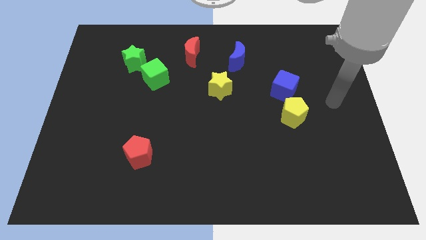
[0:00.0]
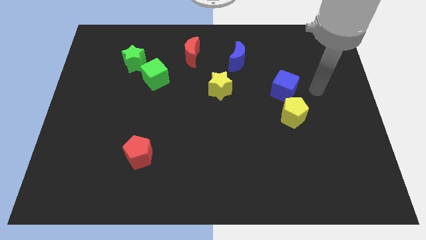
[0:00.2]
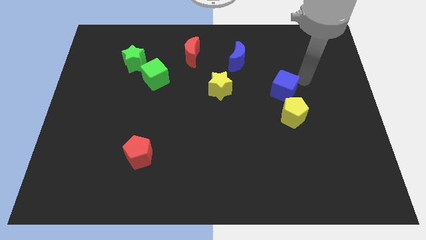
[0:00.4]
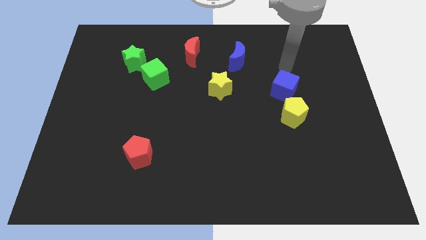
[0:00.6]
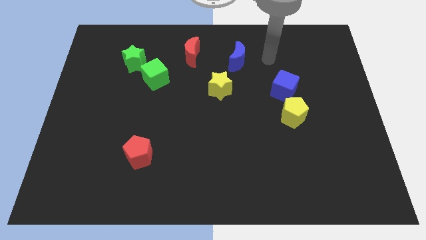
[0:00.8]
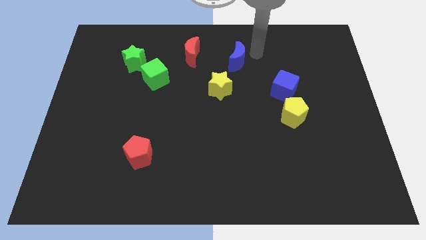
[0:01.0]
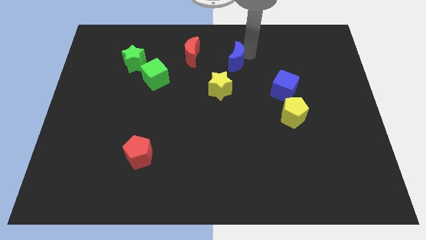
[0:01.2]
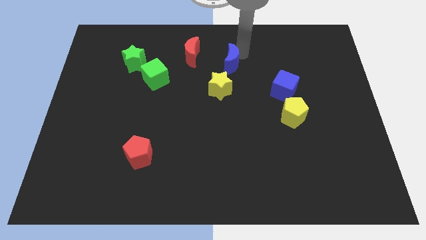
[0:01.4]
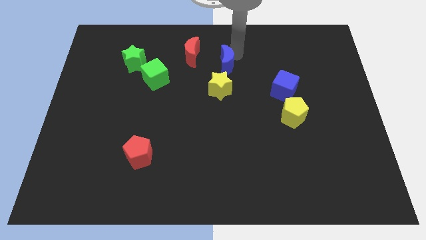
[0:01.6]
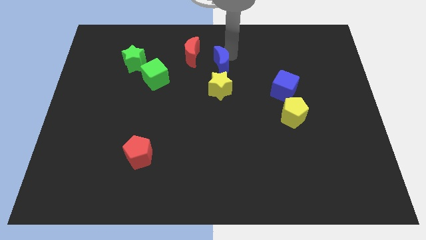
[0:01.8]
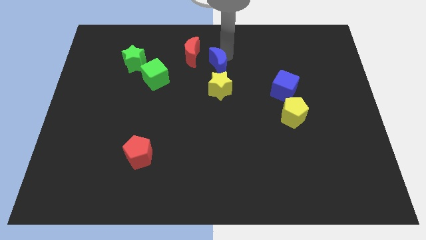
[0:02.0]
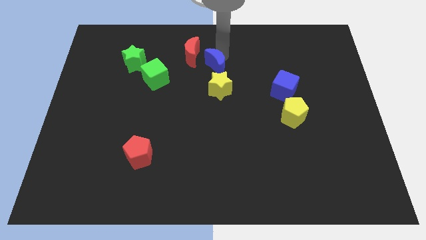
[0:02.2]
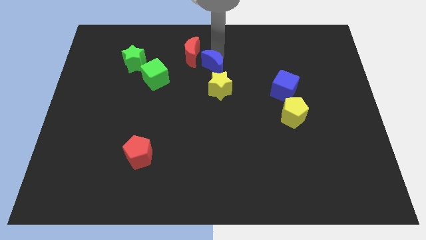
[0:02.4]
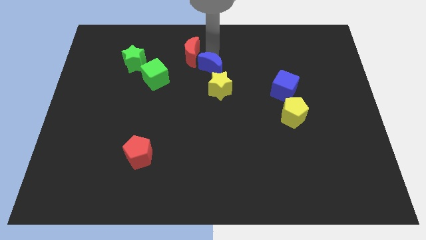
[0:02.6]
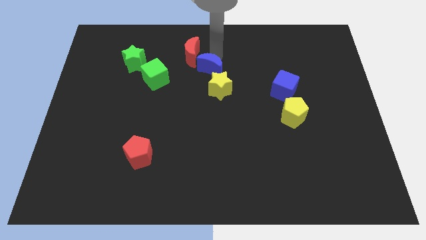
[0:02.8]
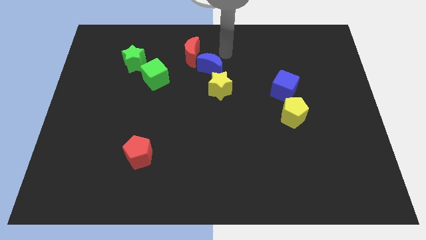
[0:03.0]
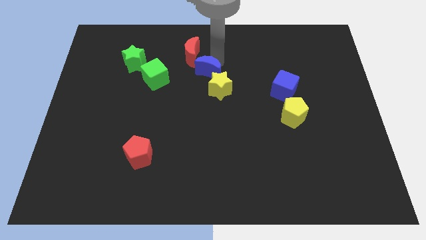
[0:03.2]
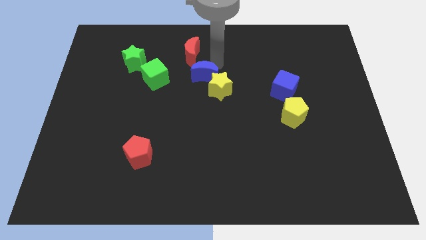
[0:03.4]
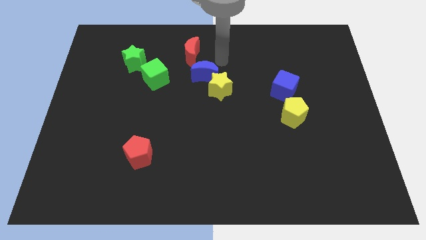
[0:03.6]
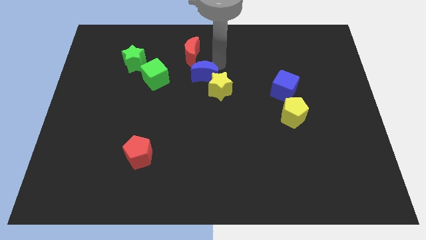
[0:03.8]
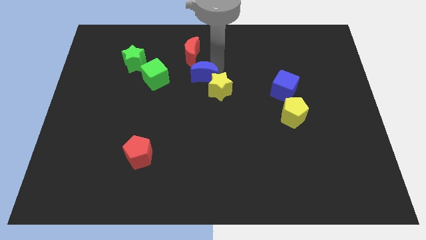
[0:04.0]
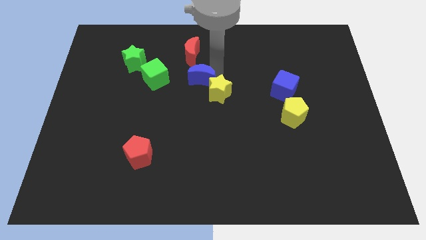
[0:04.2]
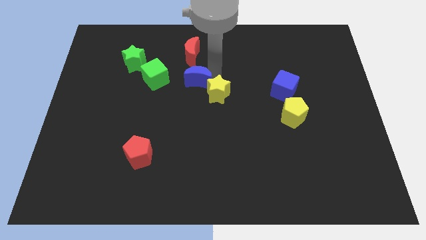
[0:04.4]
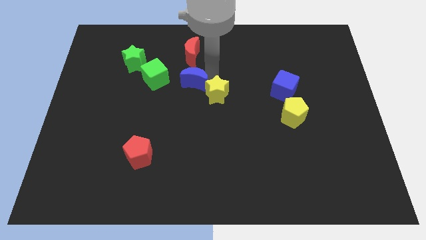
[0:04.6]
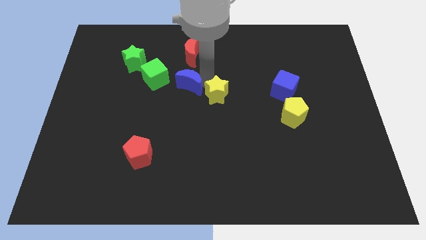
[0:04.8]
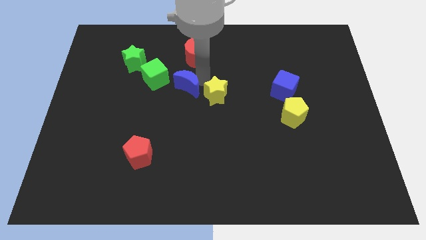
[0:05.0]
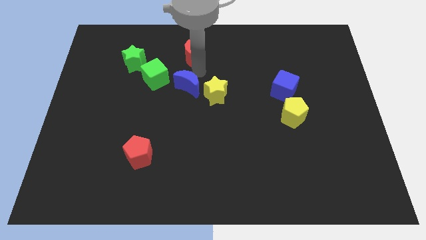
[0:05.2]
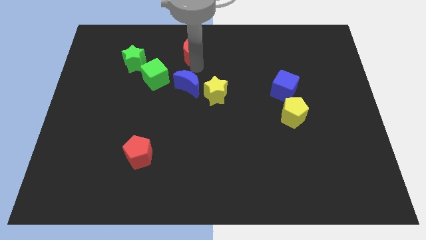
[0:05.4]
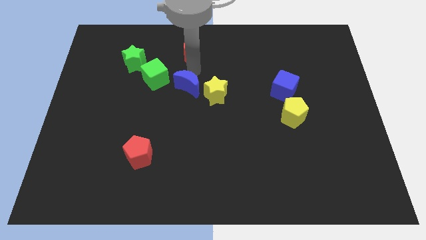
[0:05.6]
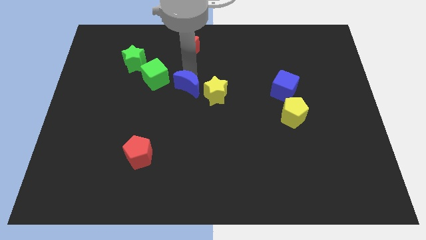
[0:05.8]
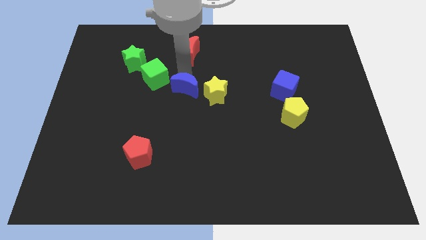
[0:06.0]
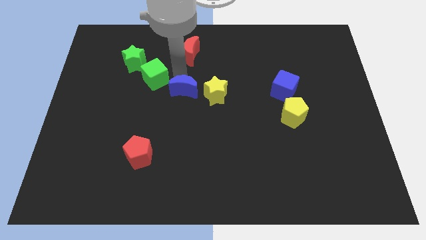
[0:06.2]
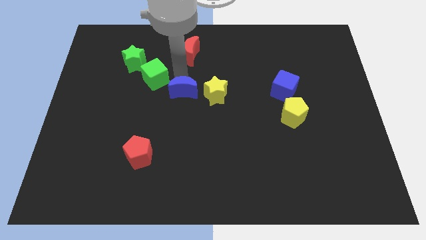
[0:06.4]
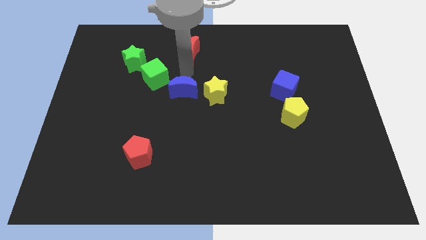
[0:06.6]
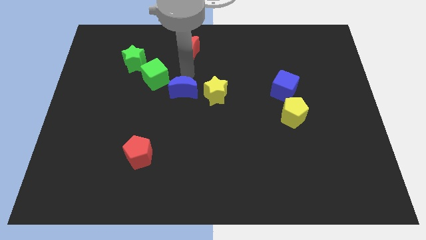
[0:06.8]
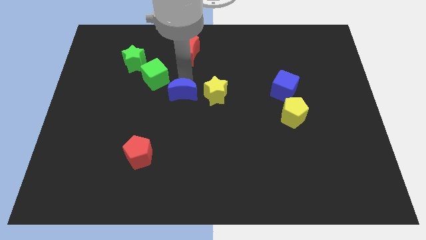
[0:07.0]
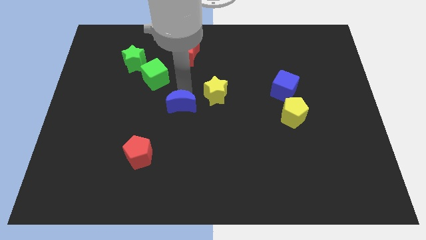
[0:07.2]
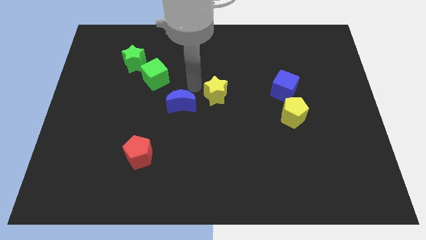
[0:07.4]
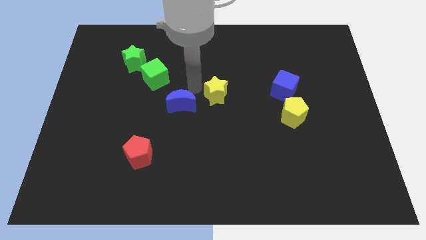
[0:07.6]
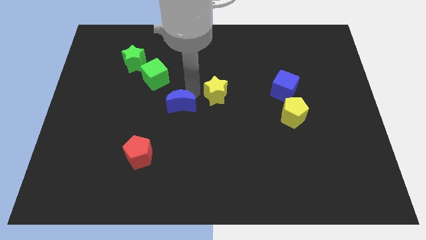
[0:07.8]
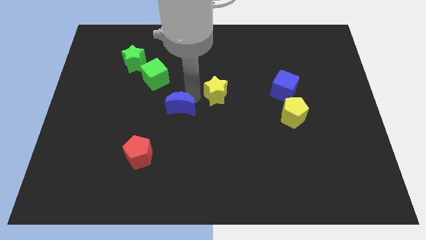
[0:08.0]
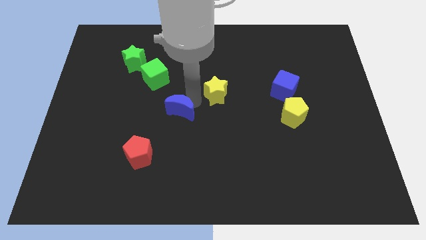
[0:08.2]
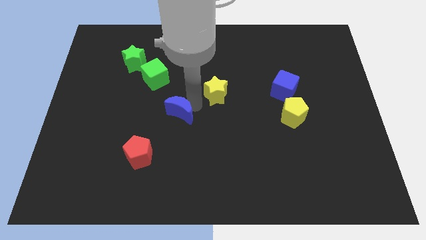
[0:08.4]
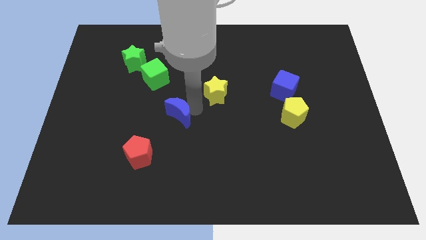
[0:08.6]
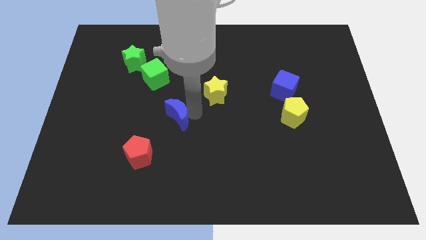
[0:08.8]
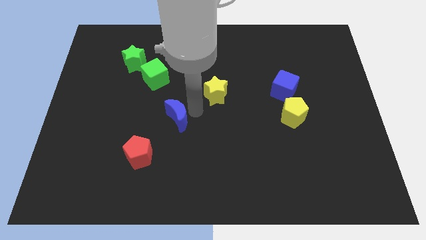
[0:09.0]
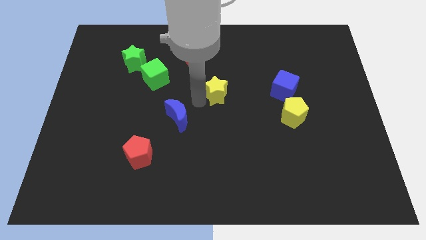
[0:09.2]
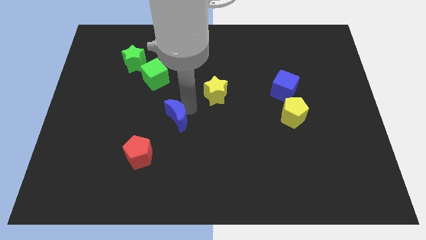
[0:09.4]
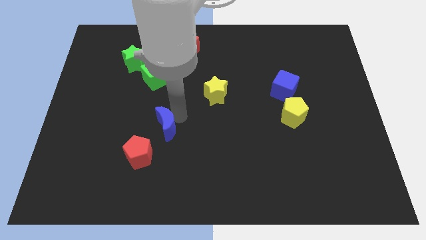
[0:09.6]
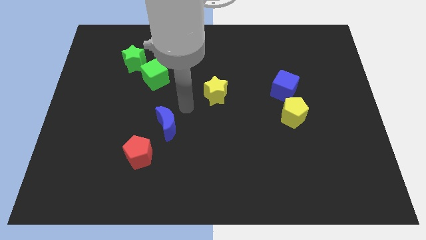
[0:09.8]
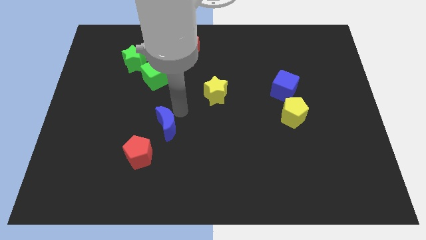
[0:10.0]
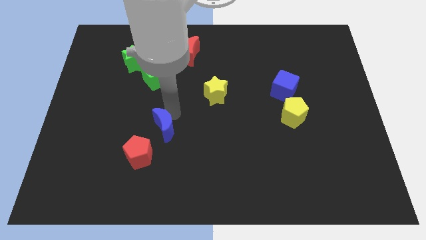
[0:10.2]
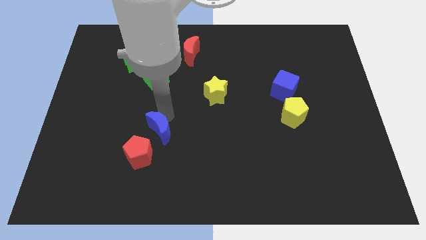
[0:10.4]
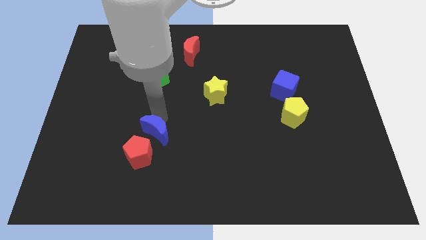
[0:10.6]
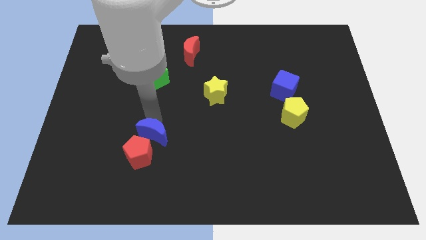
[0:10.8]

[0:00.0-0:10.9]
put the blue moon to the red pentagon

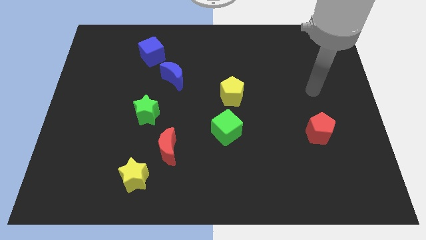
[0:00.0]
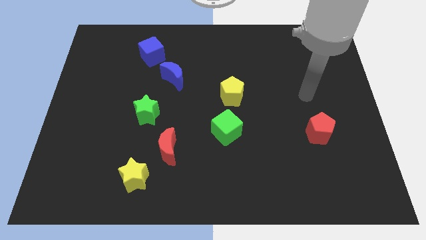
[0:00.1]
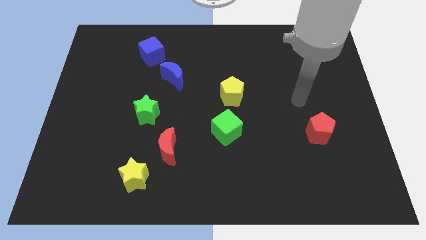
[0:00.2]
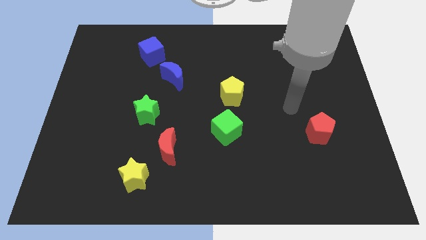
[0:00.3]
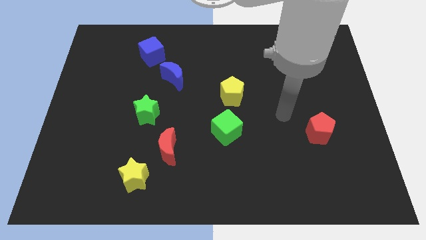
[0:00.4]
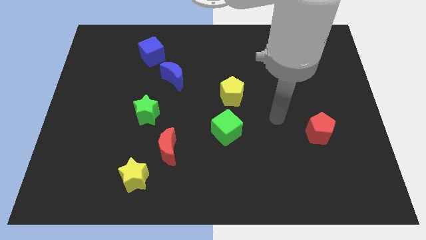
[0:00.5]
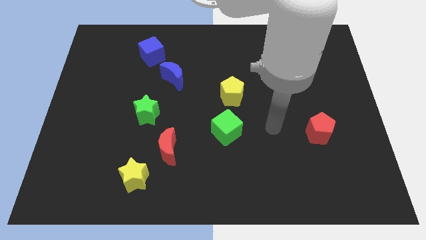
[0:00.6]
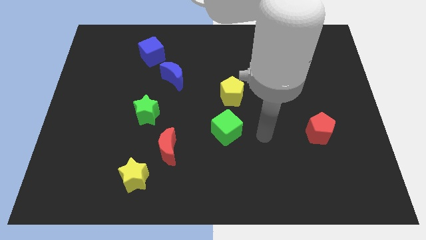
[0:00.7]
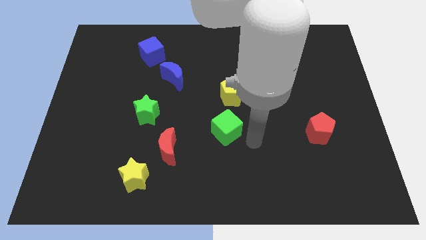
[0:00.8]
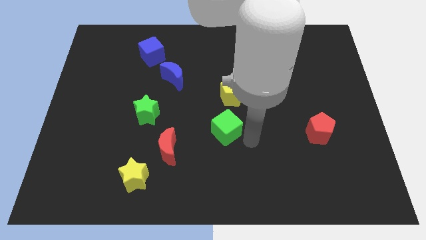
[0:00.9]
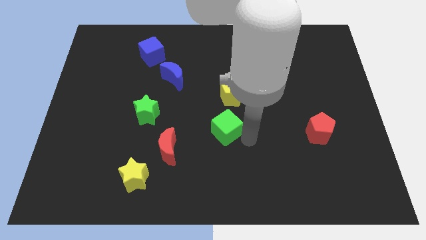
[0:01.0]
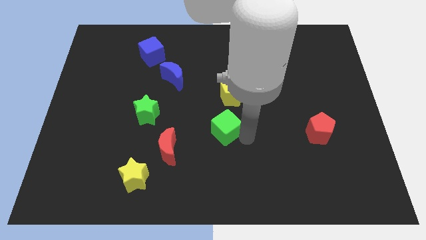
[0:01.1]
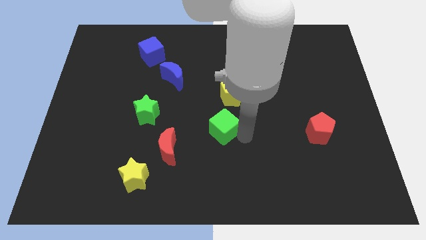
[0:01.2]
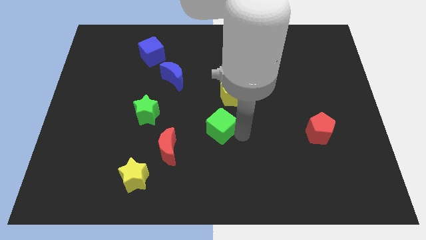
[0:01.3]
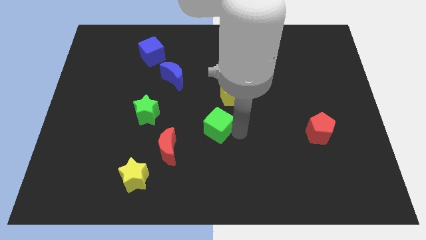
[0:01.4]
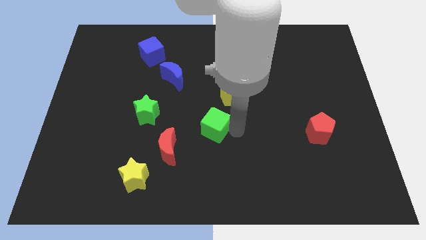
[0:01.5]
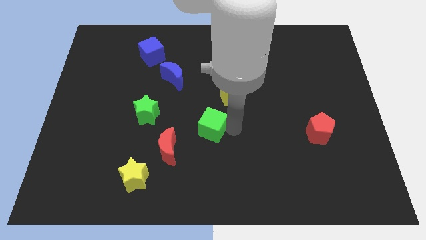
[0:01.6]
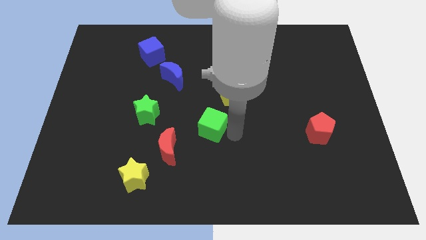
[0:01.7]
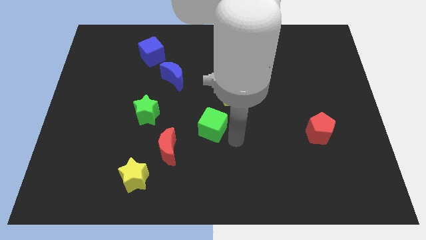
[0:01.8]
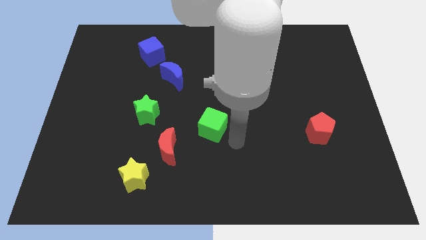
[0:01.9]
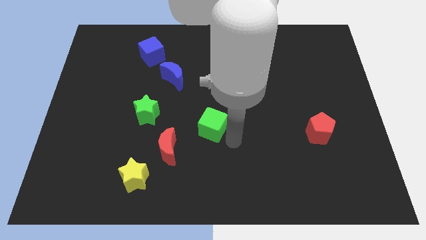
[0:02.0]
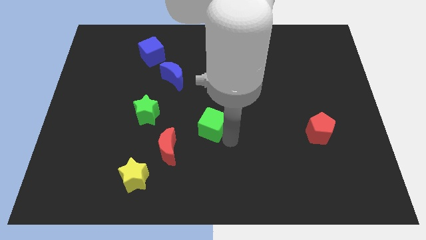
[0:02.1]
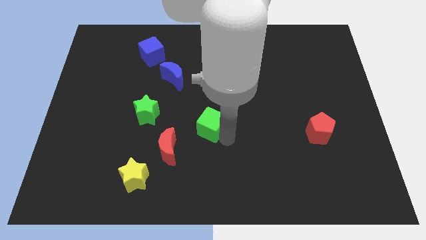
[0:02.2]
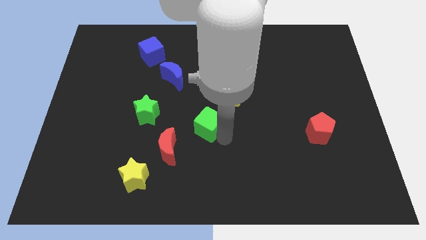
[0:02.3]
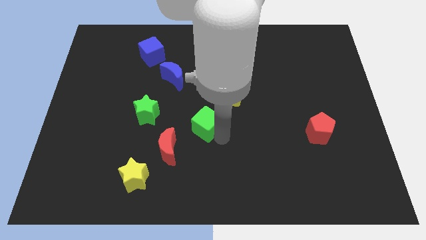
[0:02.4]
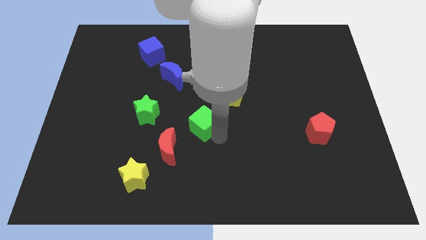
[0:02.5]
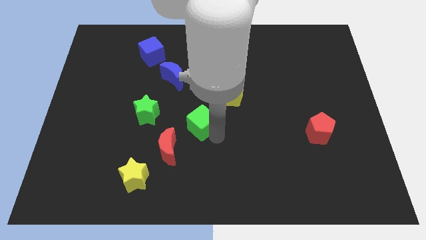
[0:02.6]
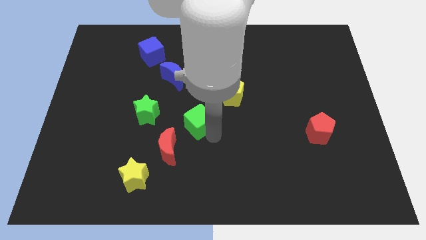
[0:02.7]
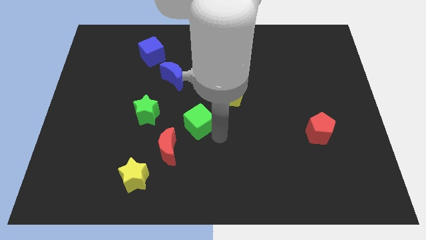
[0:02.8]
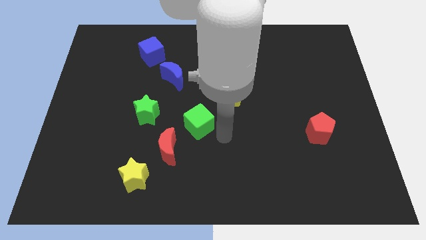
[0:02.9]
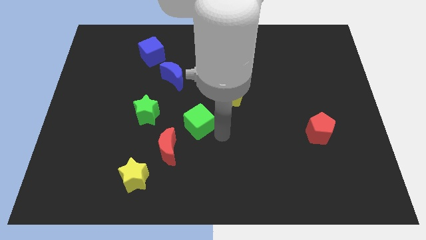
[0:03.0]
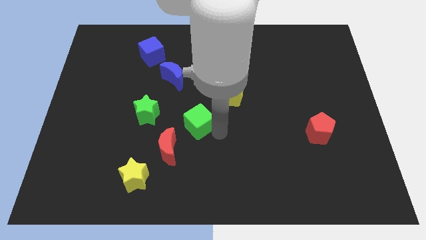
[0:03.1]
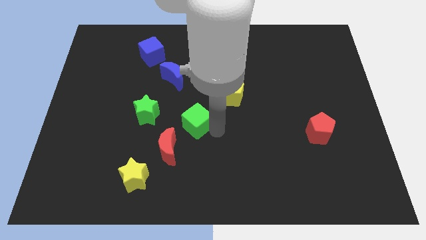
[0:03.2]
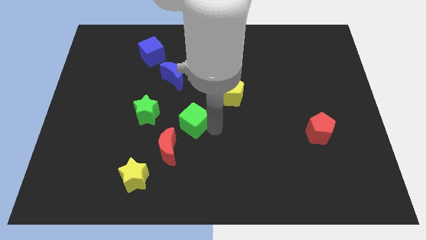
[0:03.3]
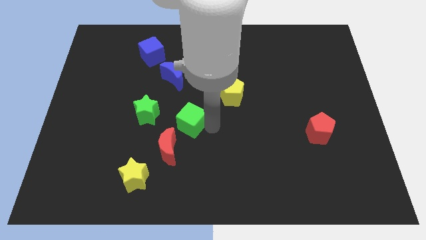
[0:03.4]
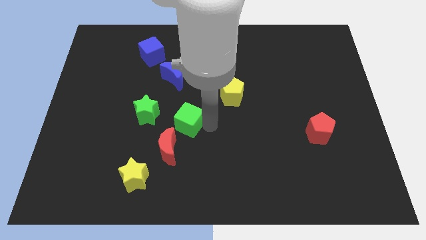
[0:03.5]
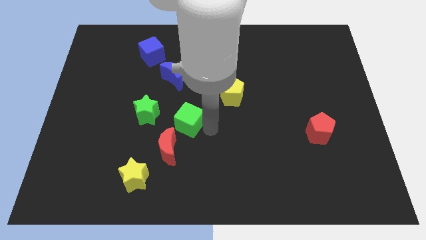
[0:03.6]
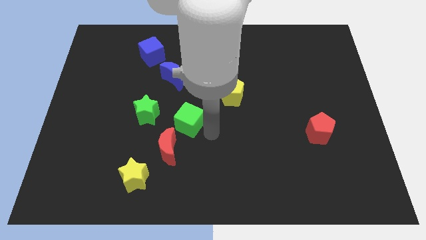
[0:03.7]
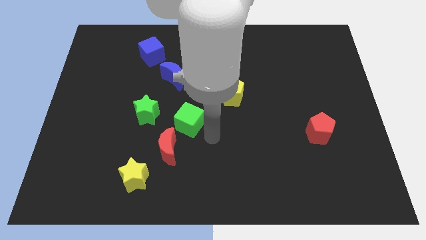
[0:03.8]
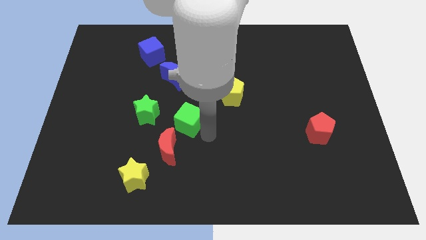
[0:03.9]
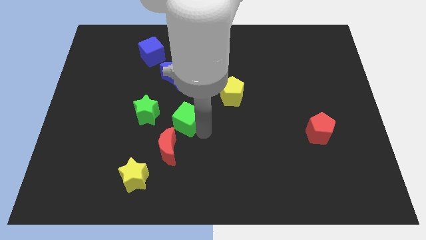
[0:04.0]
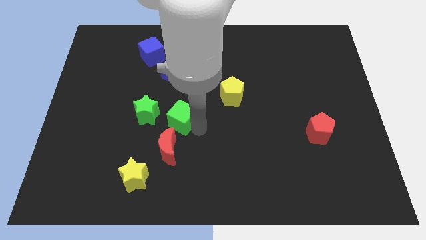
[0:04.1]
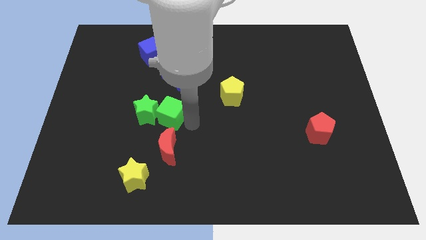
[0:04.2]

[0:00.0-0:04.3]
slide the green cube next to the green star
